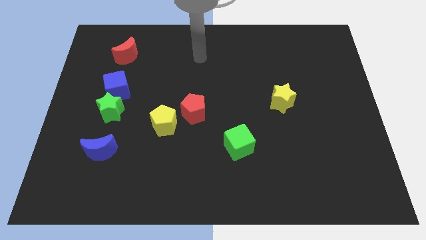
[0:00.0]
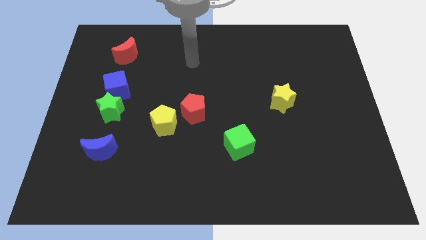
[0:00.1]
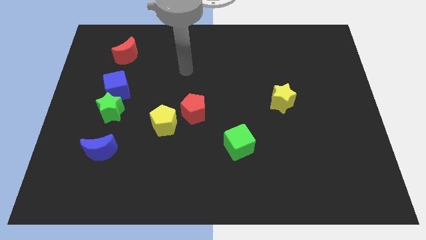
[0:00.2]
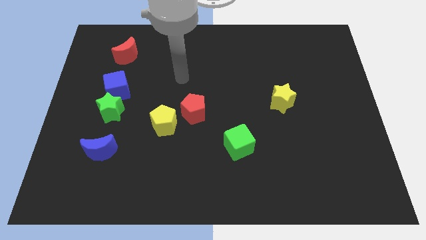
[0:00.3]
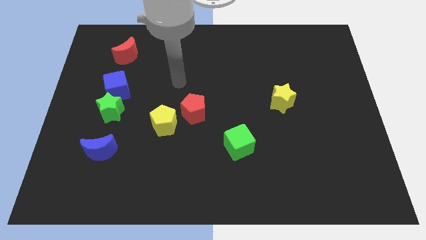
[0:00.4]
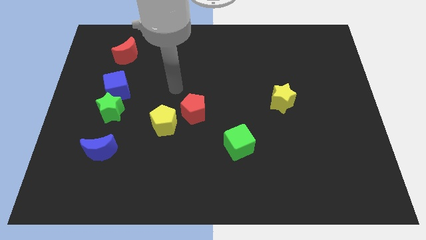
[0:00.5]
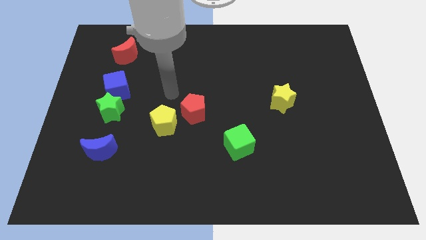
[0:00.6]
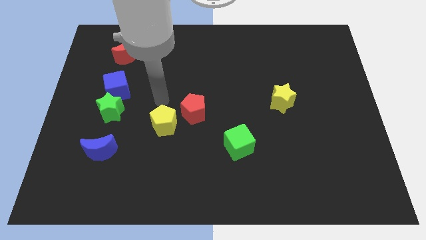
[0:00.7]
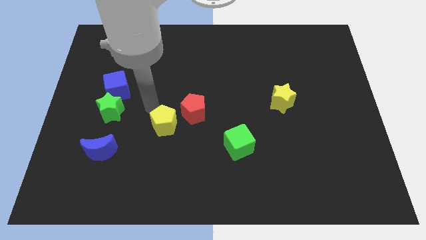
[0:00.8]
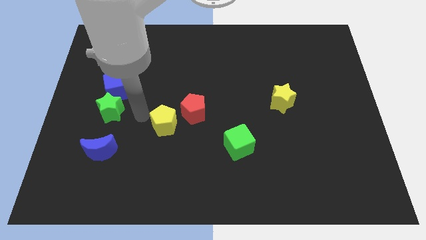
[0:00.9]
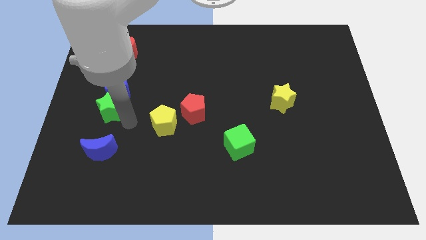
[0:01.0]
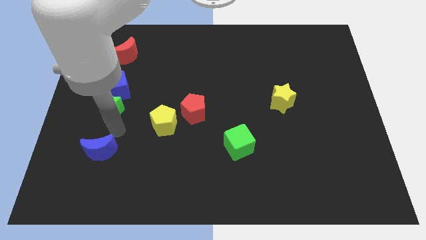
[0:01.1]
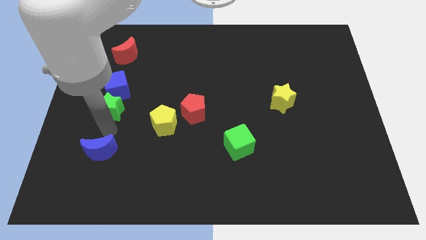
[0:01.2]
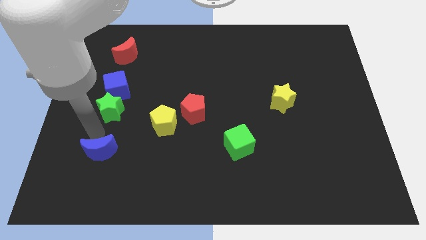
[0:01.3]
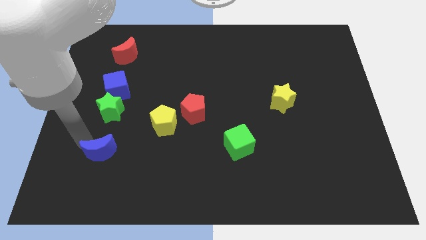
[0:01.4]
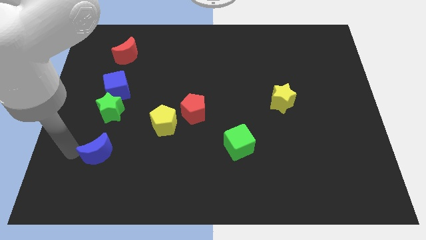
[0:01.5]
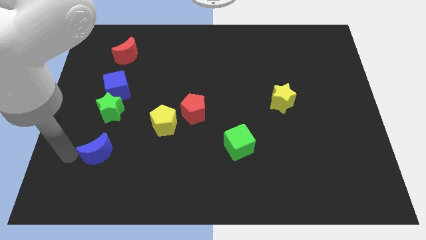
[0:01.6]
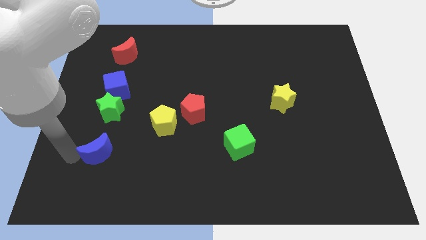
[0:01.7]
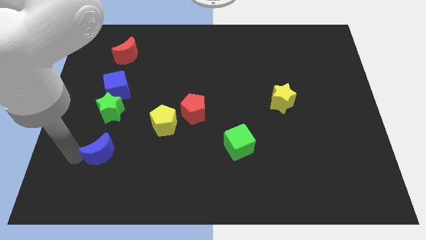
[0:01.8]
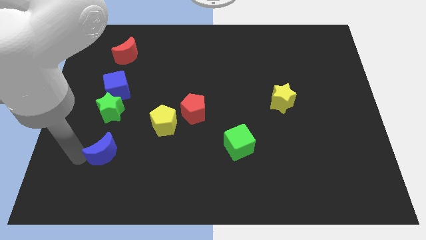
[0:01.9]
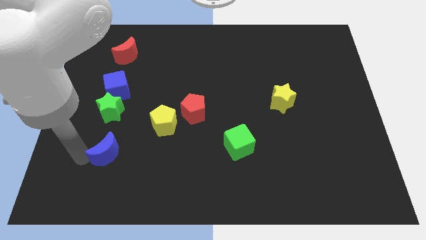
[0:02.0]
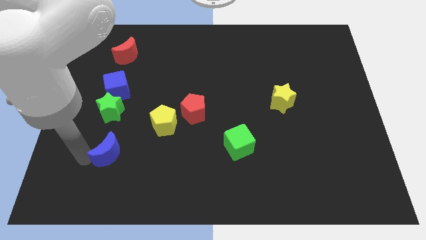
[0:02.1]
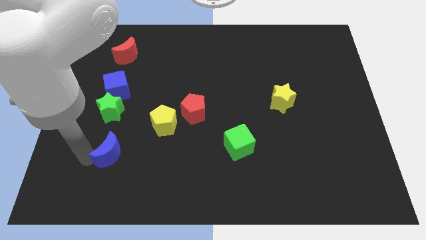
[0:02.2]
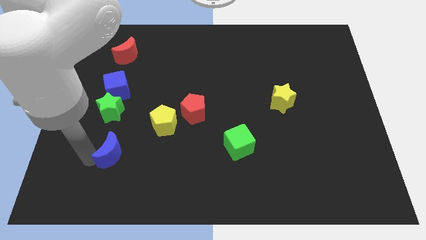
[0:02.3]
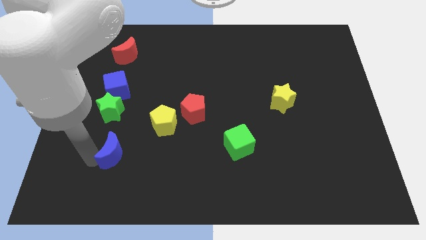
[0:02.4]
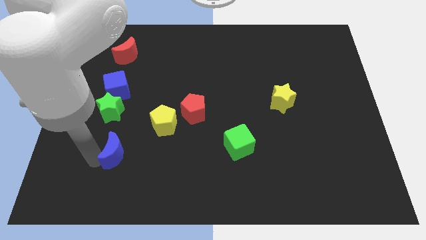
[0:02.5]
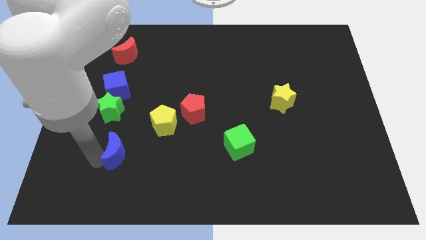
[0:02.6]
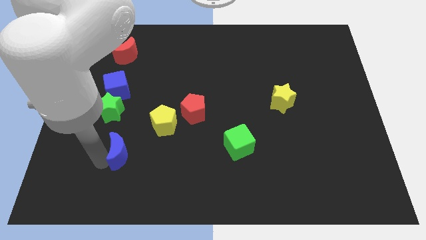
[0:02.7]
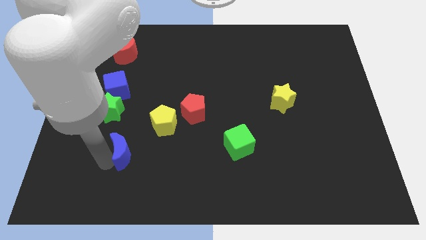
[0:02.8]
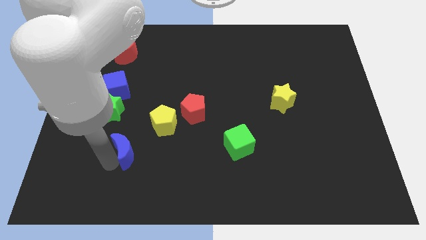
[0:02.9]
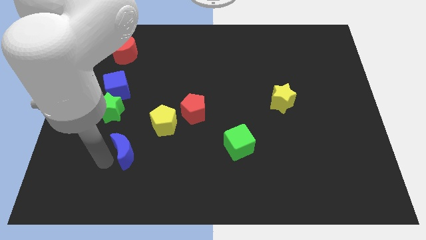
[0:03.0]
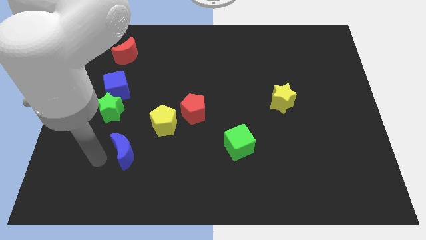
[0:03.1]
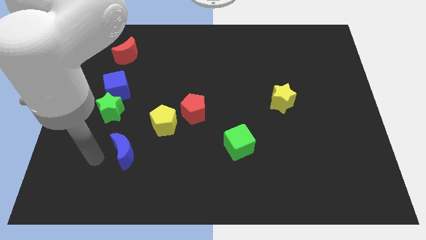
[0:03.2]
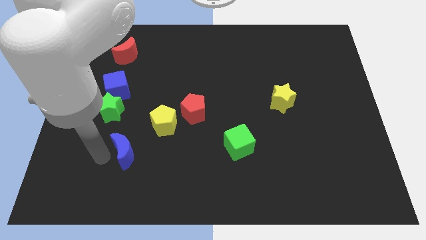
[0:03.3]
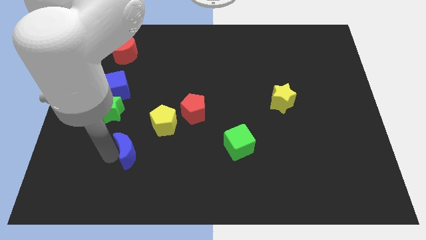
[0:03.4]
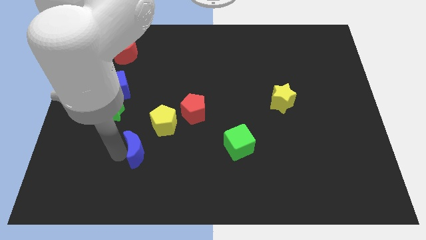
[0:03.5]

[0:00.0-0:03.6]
slide the blue moon a little right

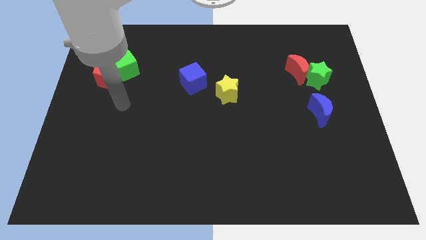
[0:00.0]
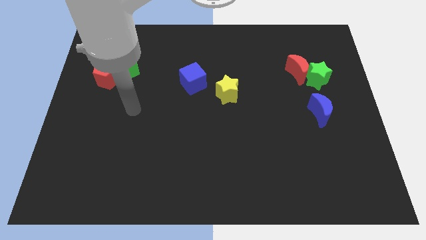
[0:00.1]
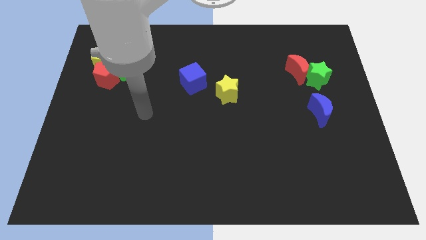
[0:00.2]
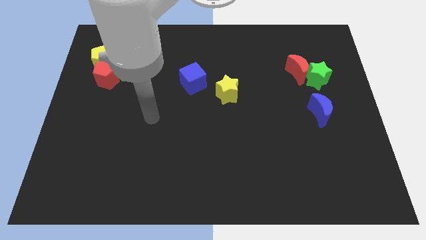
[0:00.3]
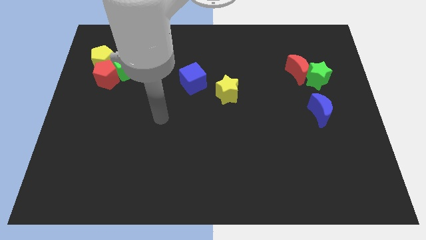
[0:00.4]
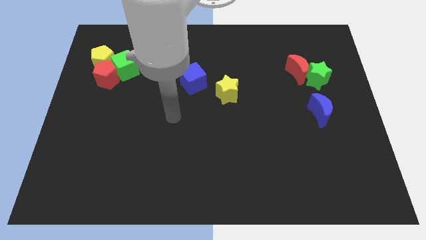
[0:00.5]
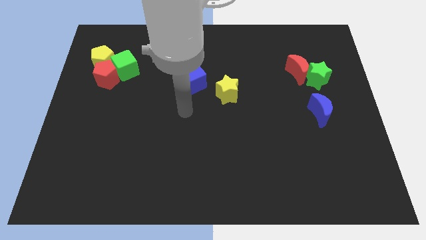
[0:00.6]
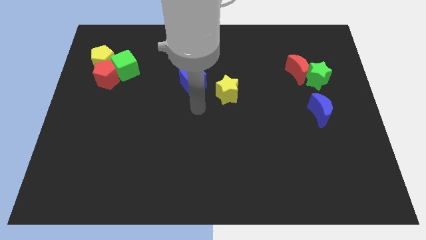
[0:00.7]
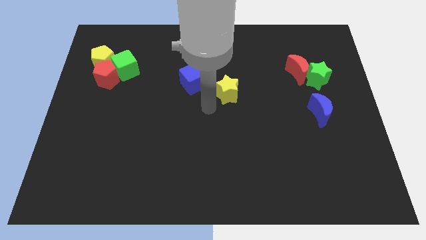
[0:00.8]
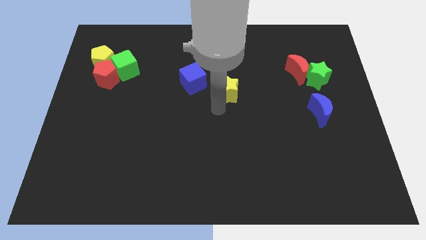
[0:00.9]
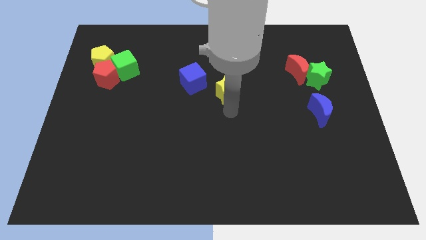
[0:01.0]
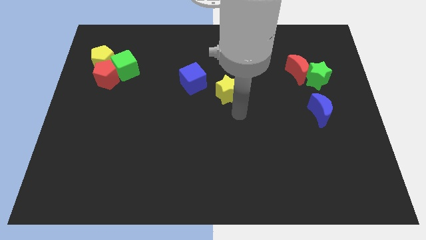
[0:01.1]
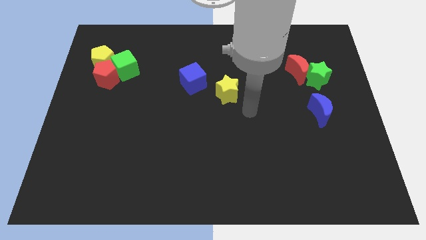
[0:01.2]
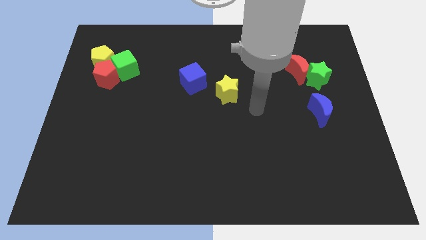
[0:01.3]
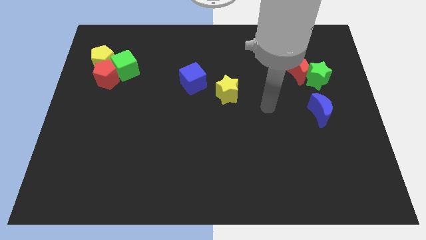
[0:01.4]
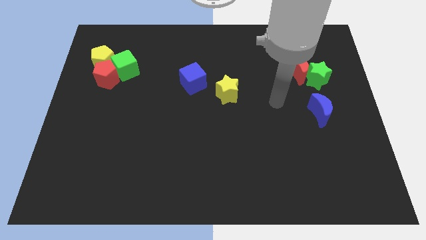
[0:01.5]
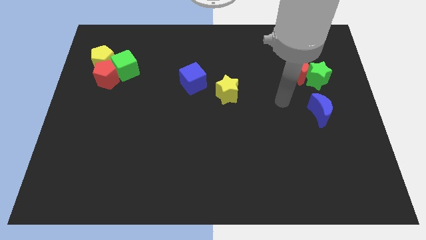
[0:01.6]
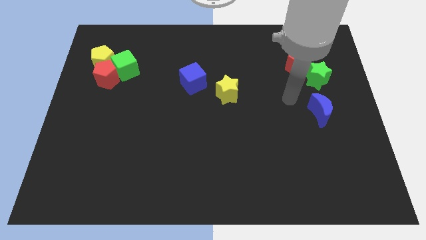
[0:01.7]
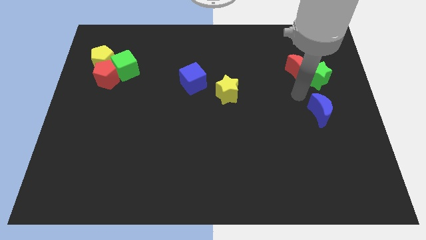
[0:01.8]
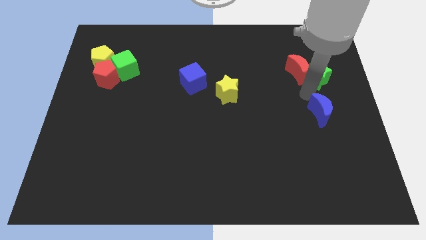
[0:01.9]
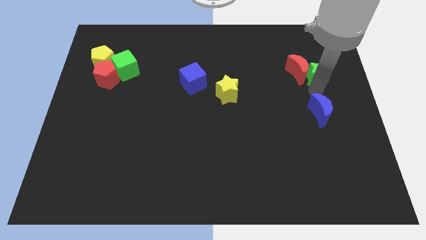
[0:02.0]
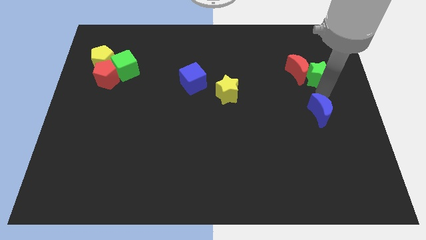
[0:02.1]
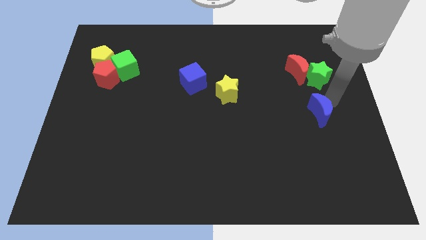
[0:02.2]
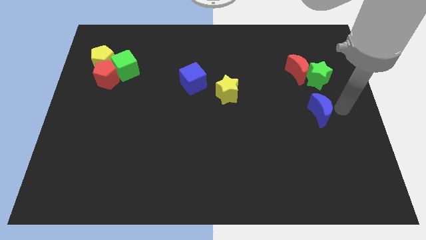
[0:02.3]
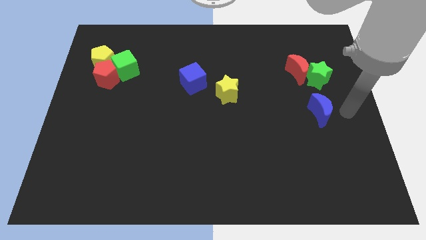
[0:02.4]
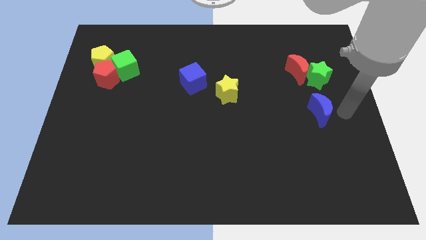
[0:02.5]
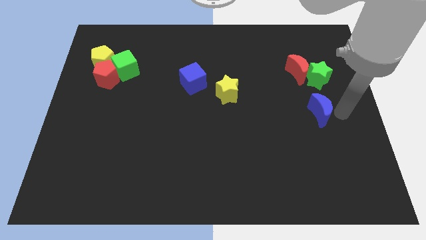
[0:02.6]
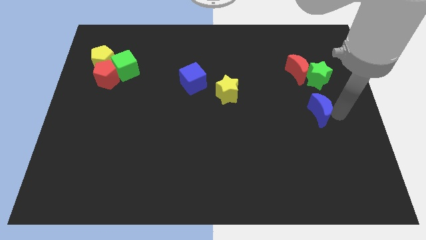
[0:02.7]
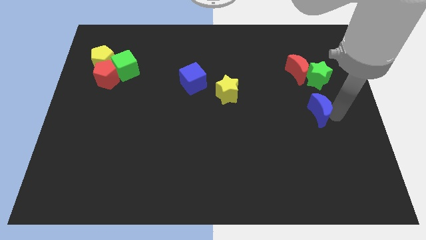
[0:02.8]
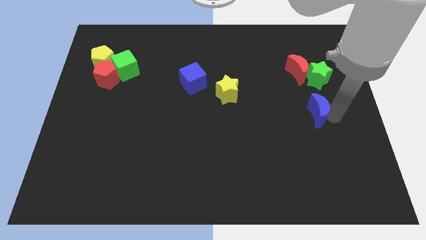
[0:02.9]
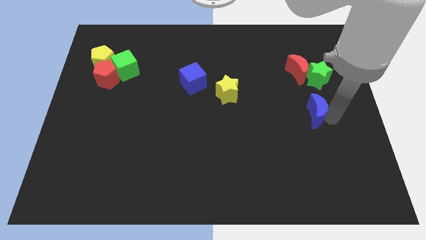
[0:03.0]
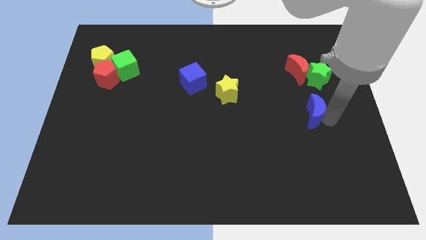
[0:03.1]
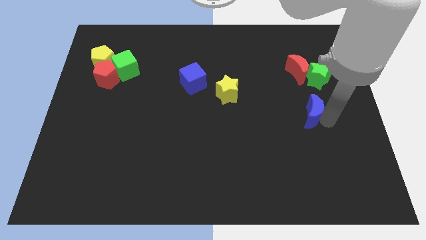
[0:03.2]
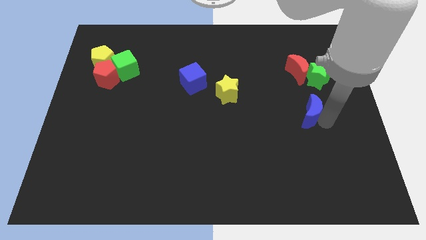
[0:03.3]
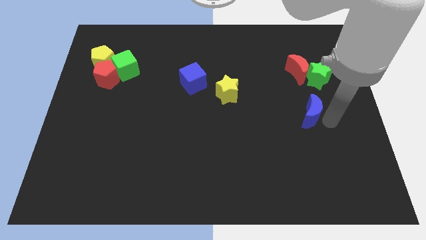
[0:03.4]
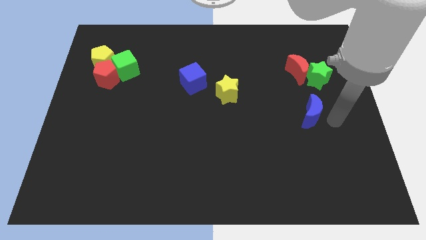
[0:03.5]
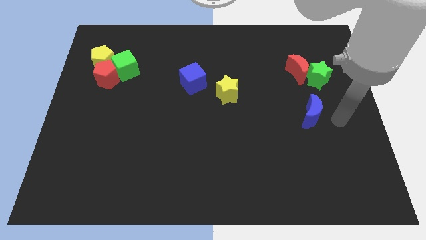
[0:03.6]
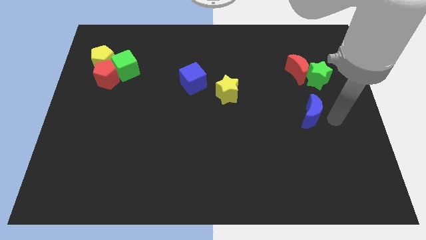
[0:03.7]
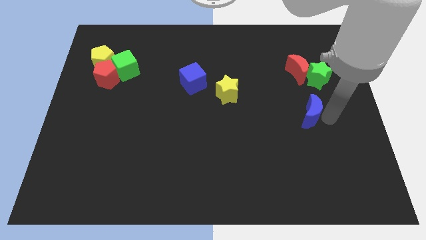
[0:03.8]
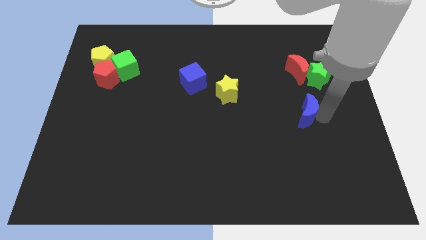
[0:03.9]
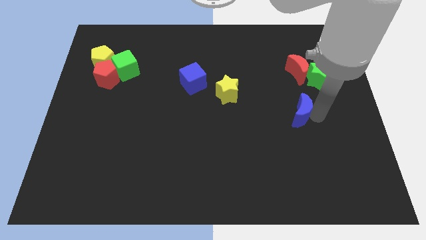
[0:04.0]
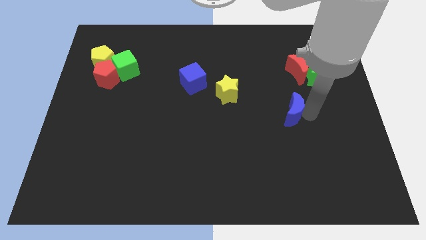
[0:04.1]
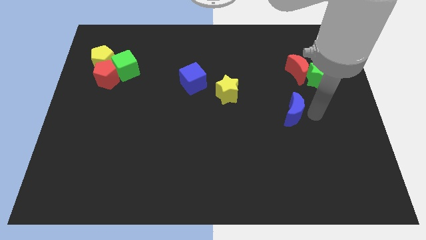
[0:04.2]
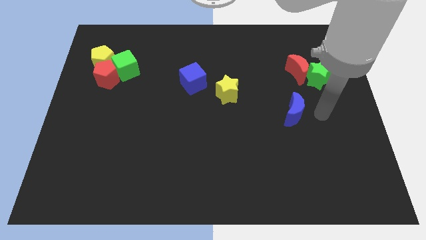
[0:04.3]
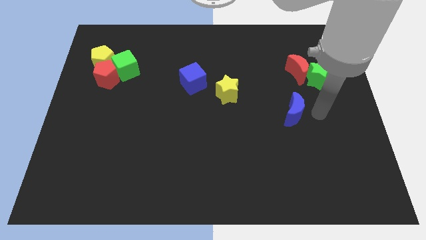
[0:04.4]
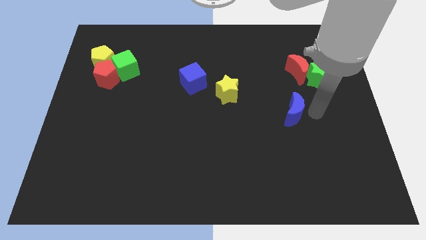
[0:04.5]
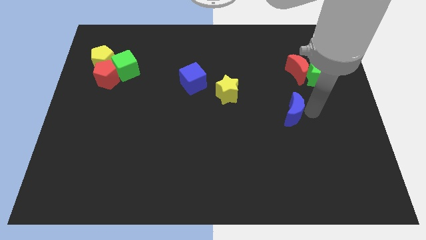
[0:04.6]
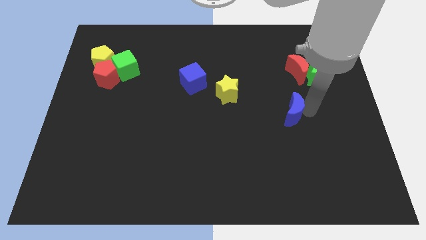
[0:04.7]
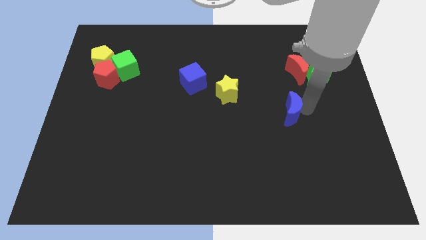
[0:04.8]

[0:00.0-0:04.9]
slide the blue moon somewhat to the left
